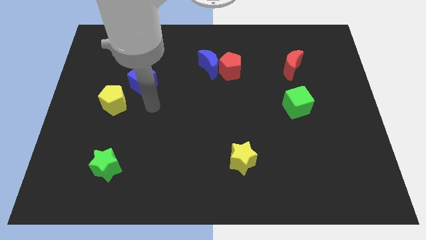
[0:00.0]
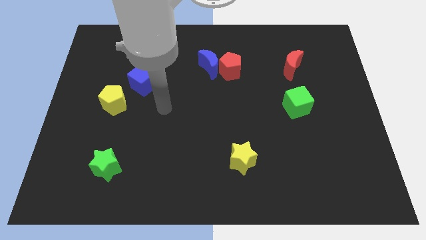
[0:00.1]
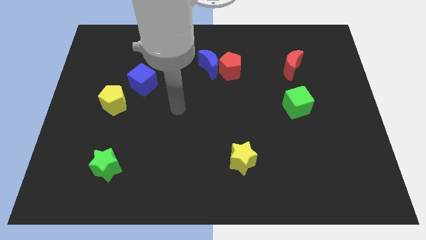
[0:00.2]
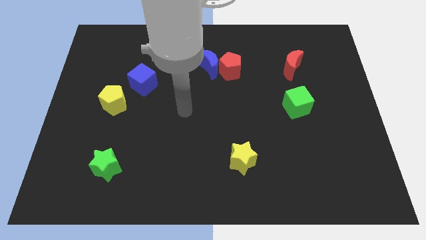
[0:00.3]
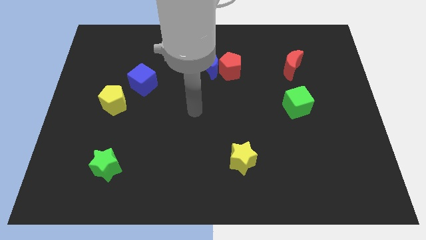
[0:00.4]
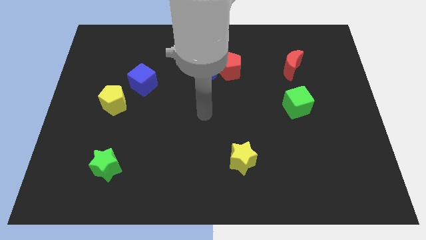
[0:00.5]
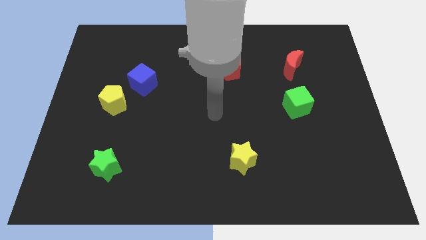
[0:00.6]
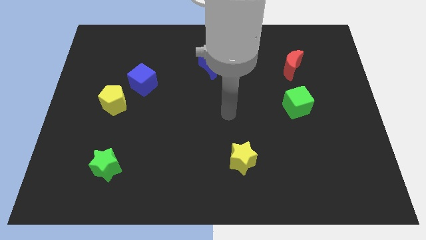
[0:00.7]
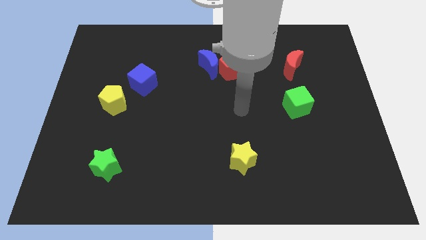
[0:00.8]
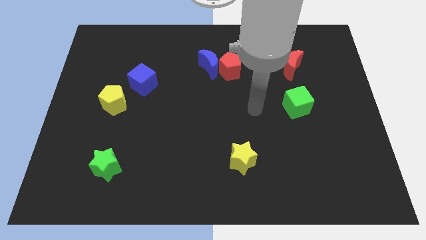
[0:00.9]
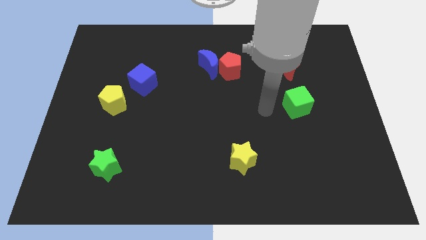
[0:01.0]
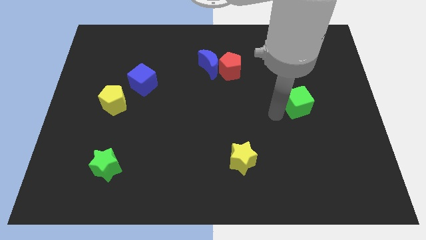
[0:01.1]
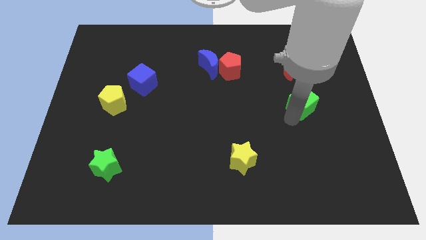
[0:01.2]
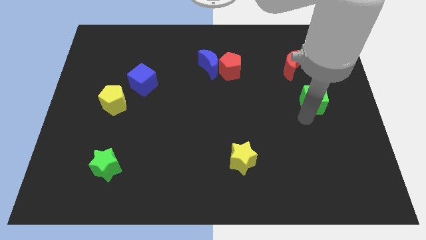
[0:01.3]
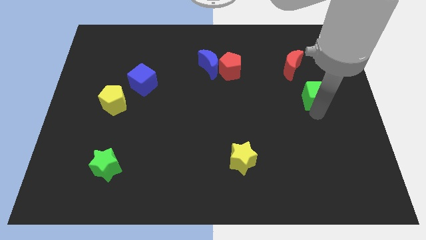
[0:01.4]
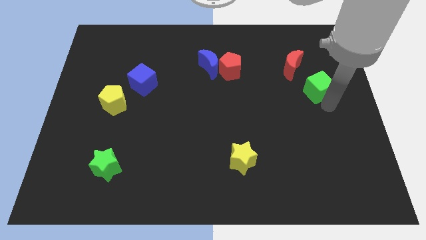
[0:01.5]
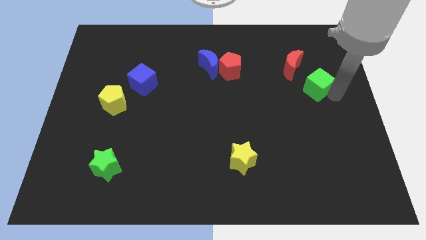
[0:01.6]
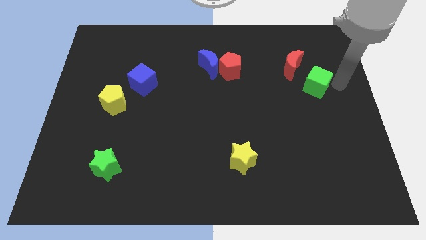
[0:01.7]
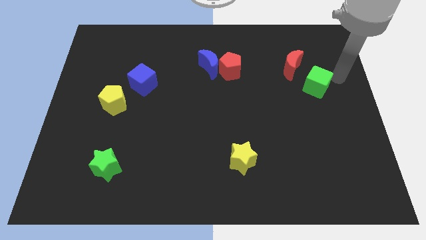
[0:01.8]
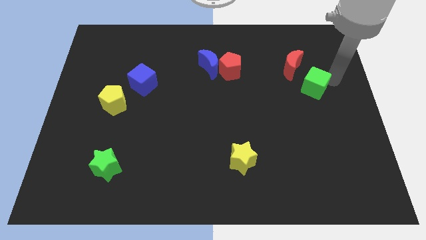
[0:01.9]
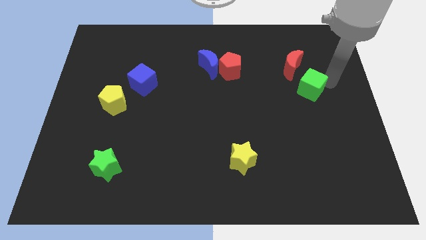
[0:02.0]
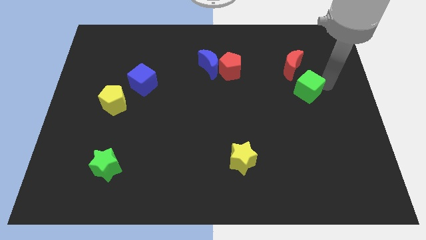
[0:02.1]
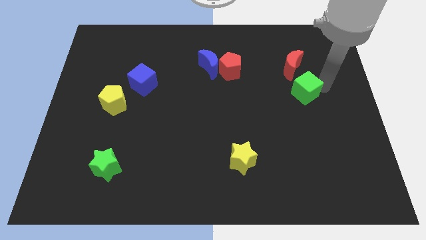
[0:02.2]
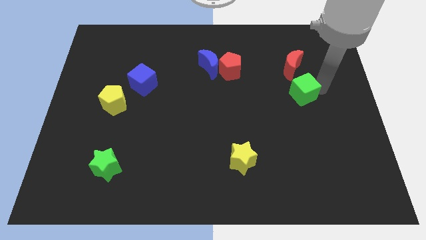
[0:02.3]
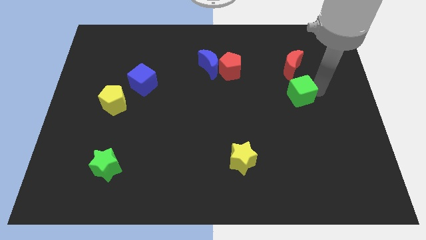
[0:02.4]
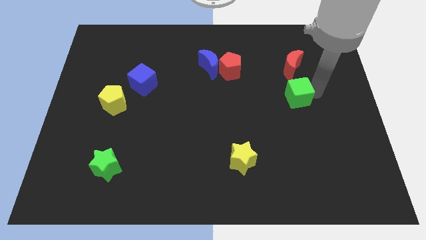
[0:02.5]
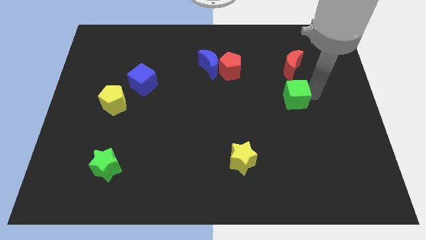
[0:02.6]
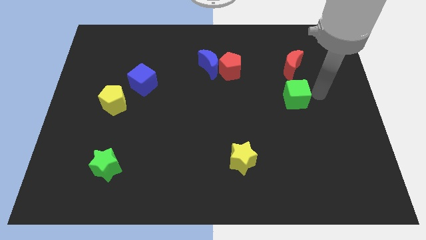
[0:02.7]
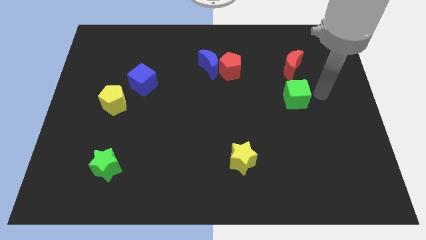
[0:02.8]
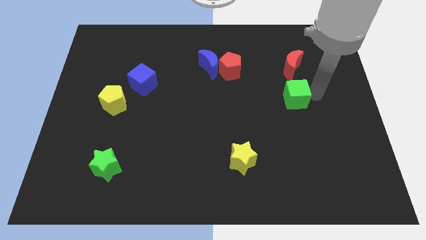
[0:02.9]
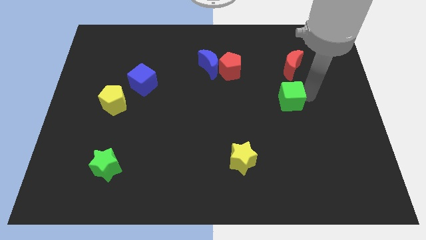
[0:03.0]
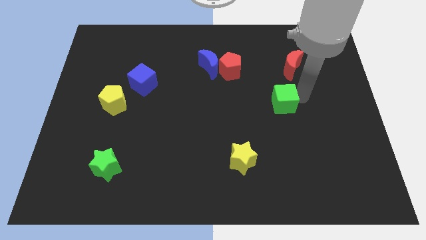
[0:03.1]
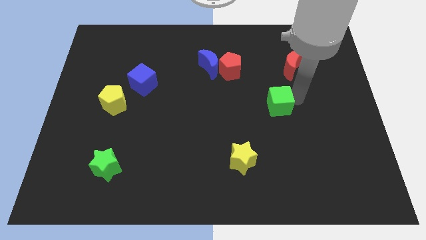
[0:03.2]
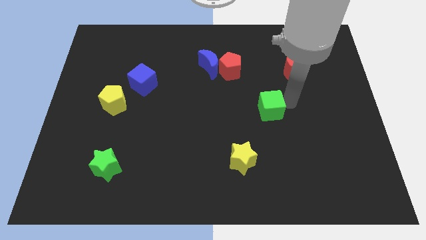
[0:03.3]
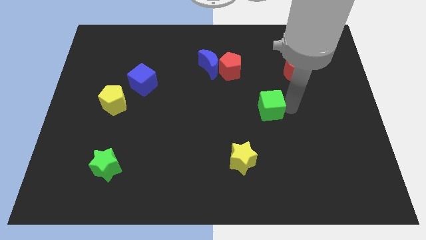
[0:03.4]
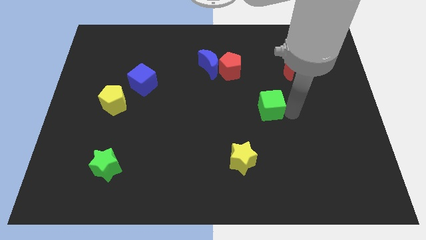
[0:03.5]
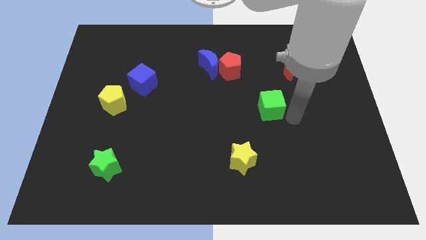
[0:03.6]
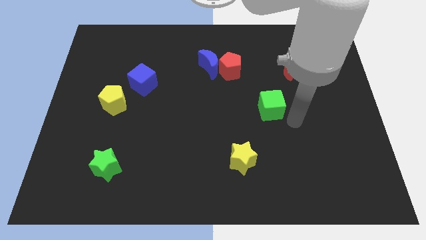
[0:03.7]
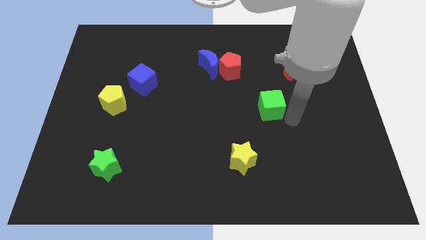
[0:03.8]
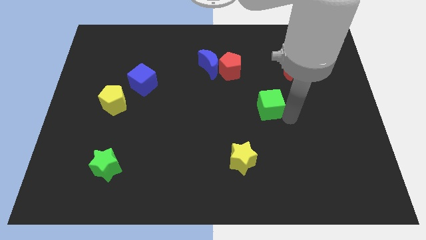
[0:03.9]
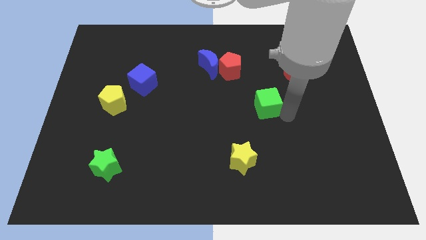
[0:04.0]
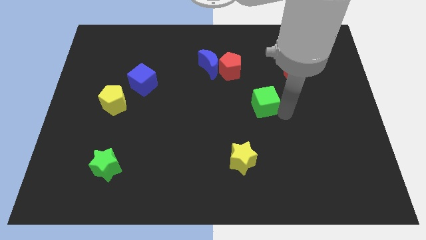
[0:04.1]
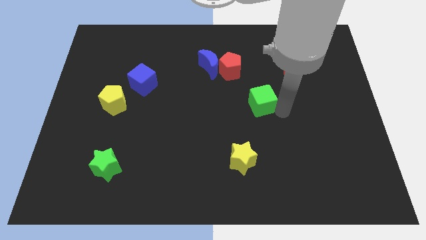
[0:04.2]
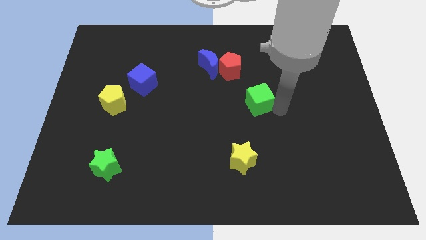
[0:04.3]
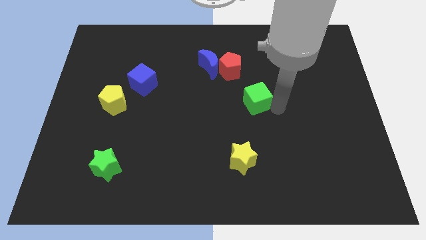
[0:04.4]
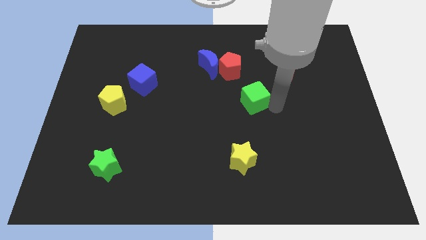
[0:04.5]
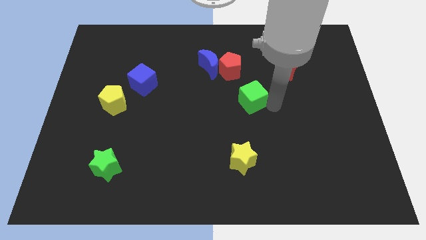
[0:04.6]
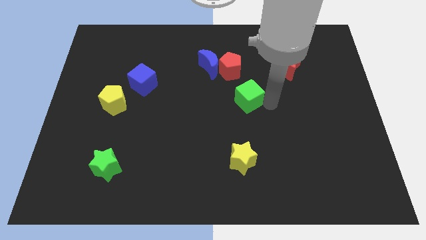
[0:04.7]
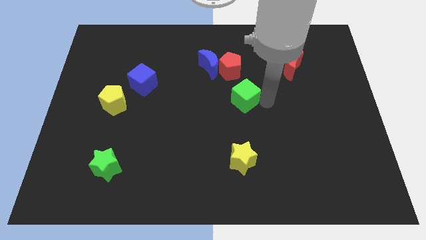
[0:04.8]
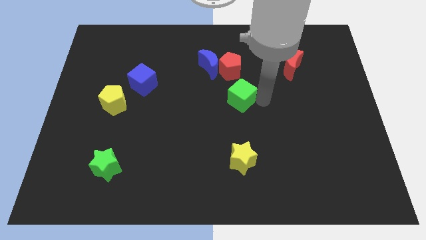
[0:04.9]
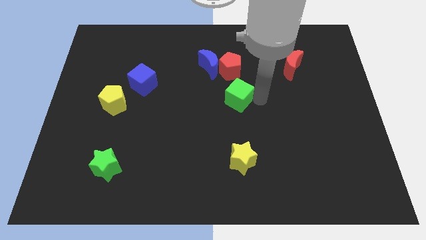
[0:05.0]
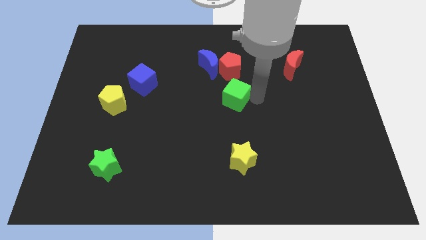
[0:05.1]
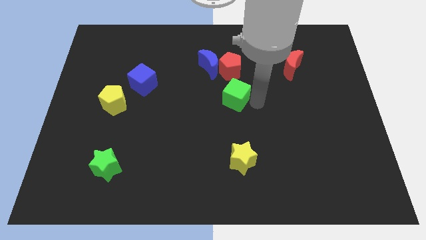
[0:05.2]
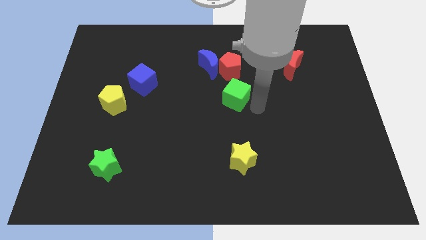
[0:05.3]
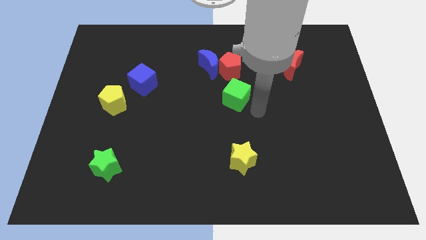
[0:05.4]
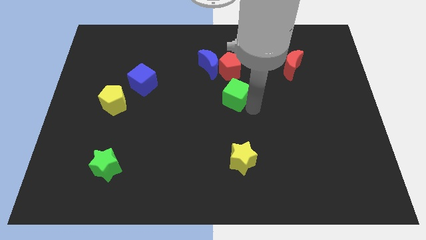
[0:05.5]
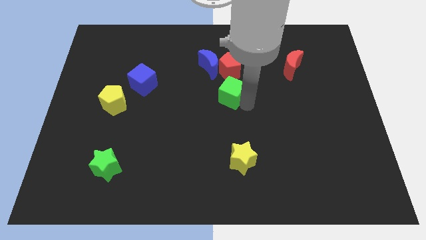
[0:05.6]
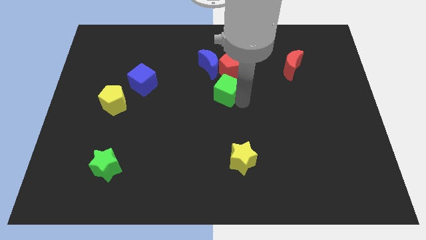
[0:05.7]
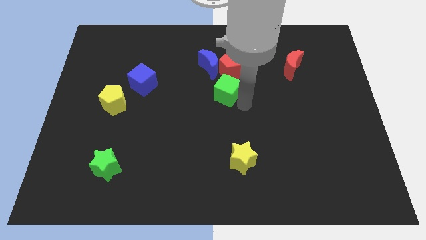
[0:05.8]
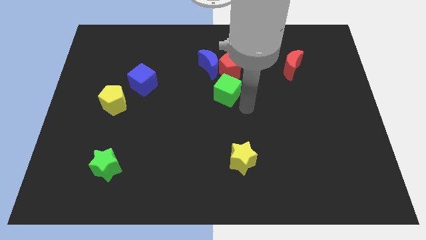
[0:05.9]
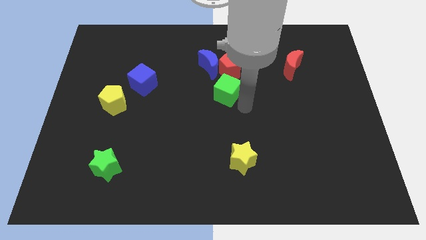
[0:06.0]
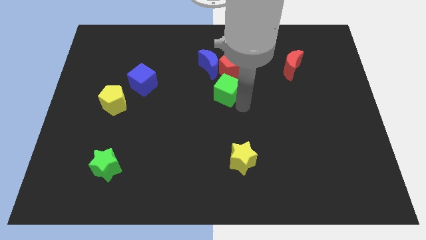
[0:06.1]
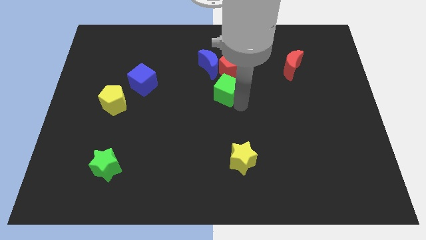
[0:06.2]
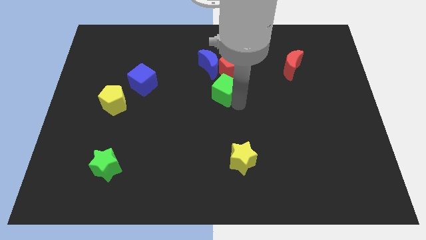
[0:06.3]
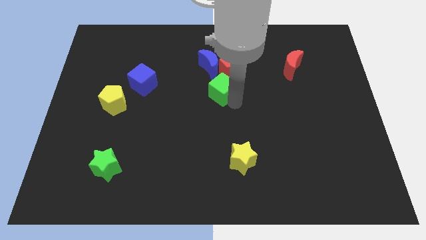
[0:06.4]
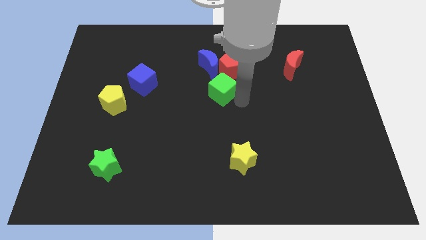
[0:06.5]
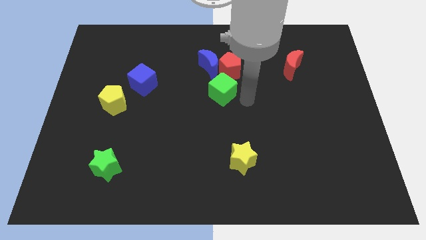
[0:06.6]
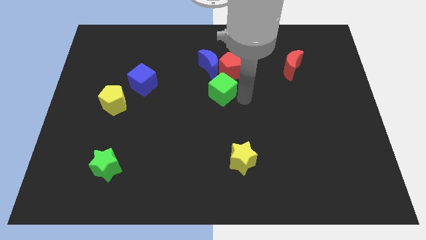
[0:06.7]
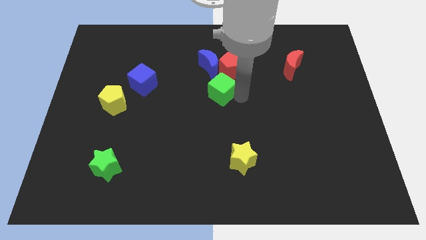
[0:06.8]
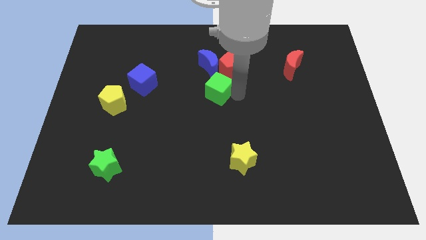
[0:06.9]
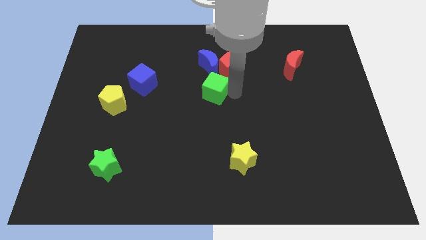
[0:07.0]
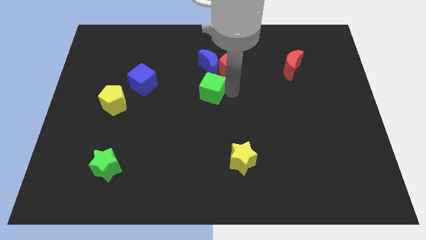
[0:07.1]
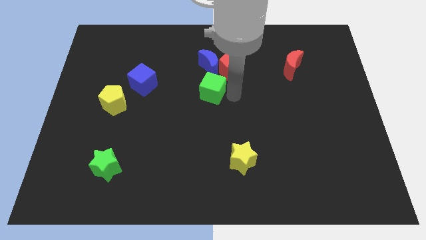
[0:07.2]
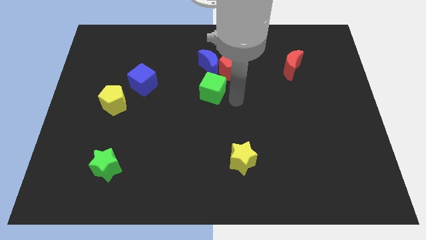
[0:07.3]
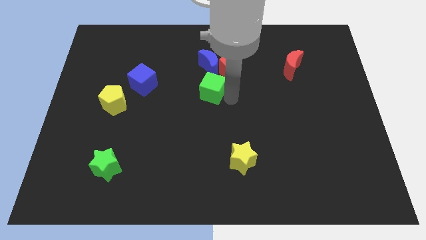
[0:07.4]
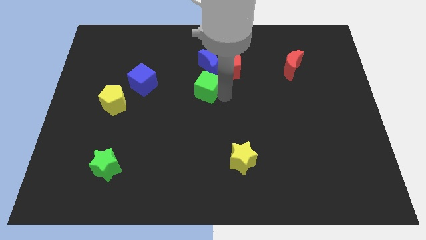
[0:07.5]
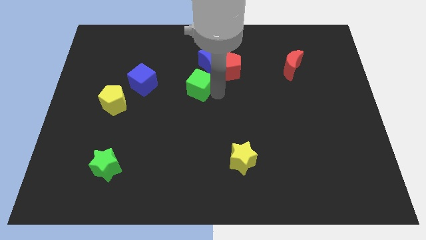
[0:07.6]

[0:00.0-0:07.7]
move the green cube to the bottom left of the blue moon

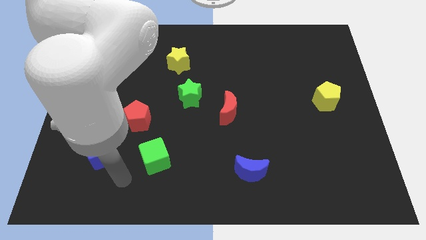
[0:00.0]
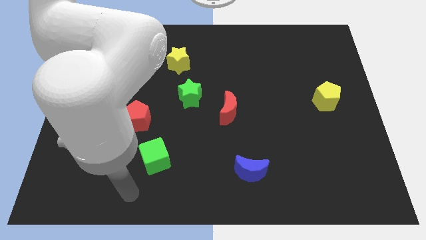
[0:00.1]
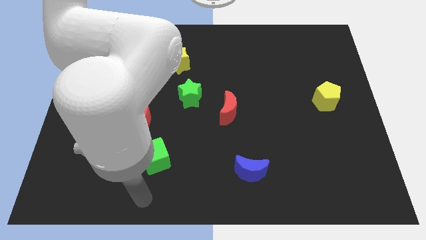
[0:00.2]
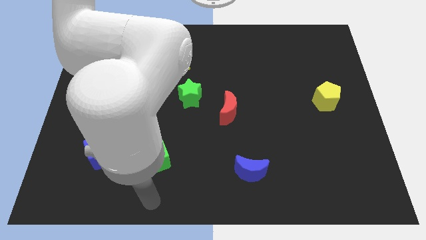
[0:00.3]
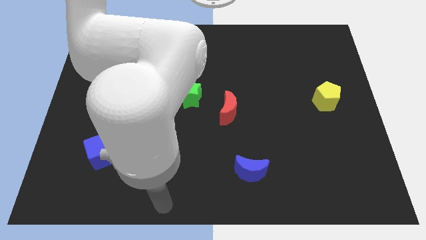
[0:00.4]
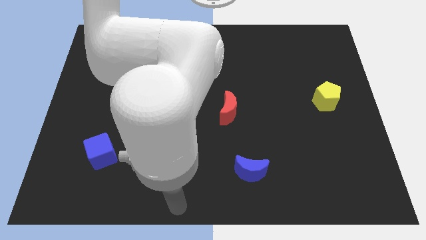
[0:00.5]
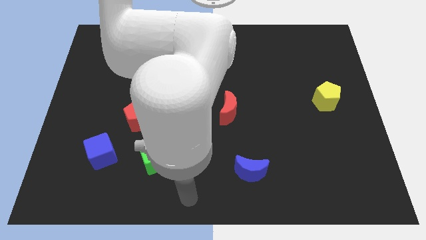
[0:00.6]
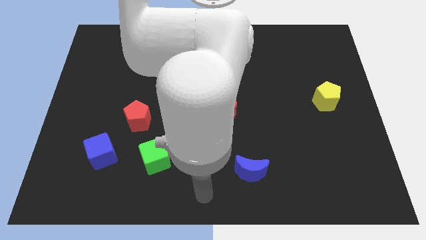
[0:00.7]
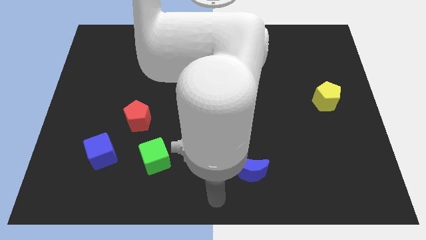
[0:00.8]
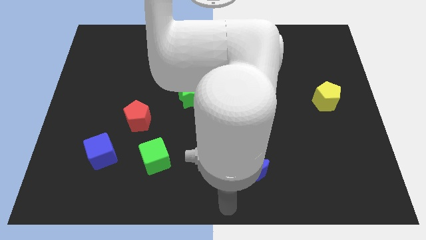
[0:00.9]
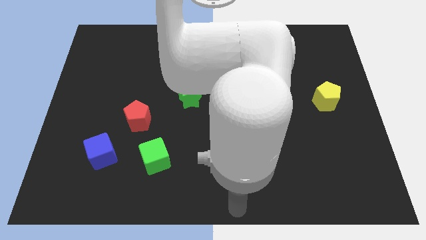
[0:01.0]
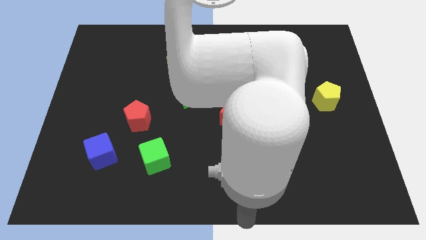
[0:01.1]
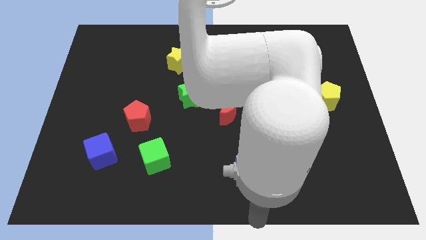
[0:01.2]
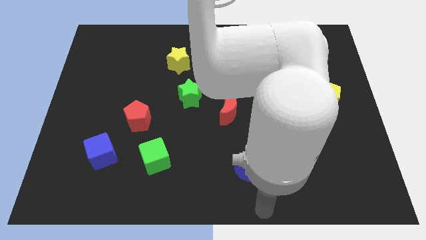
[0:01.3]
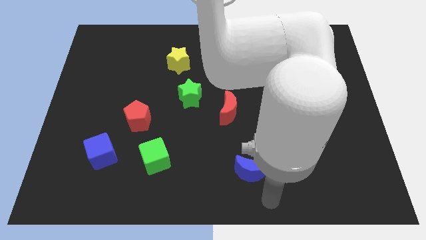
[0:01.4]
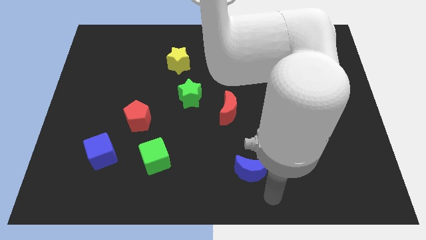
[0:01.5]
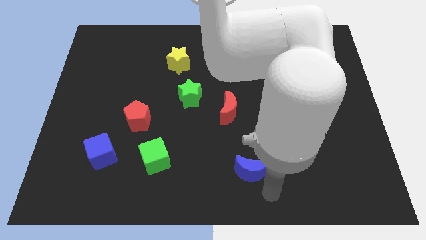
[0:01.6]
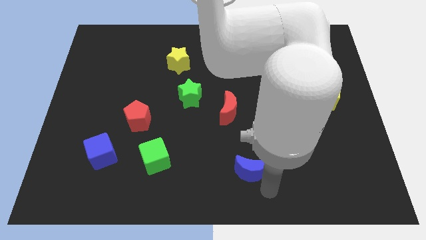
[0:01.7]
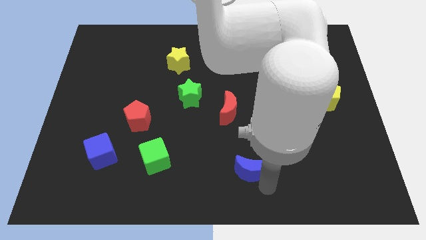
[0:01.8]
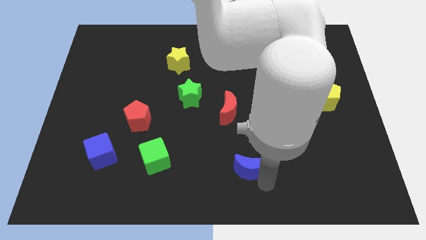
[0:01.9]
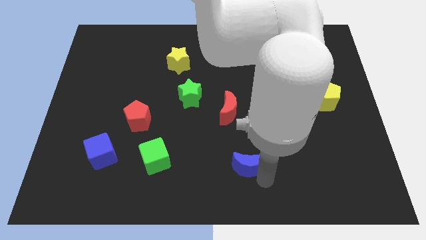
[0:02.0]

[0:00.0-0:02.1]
slide the blue moon to the bottom side of the red moon
